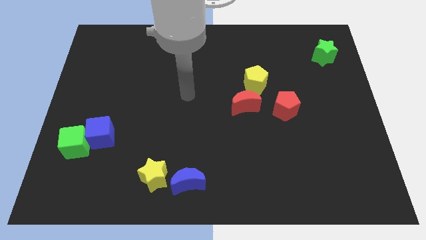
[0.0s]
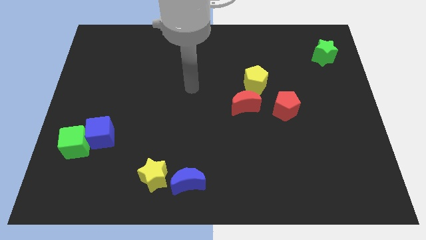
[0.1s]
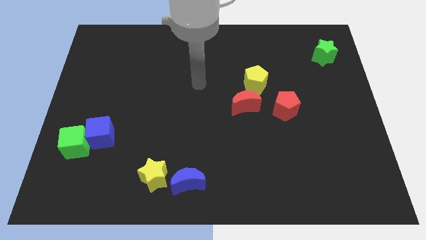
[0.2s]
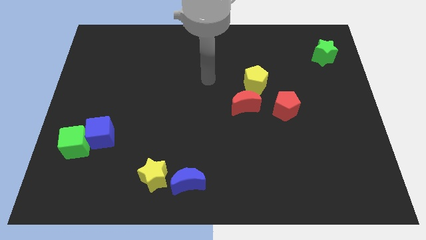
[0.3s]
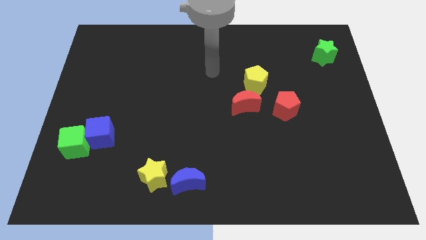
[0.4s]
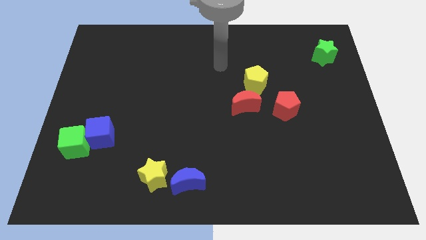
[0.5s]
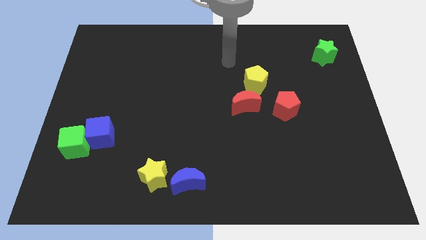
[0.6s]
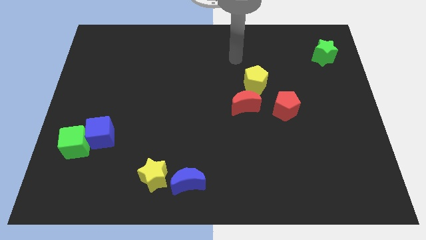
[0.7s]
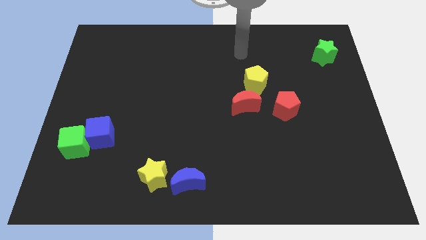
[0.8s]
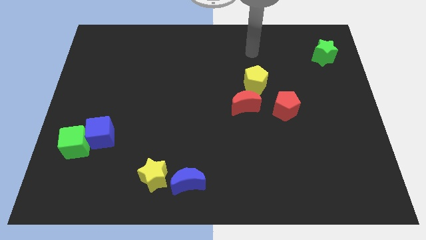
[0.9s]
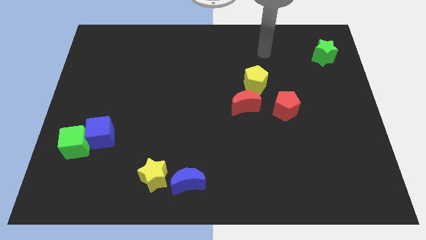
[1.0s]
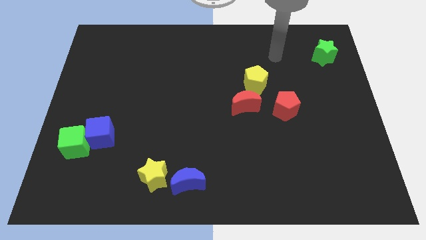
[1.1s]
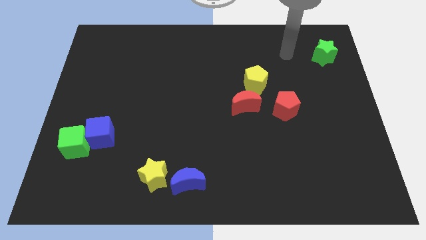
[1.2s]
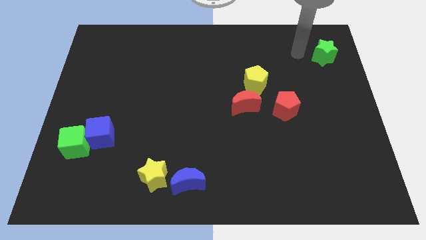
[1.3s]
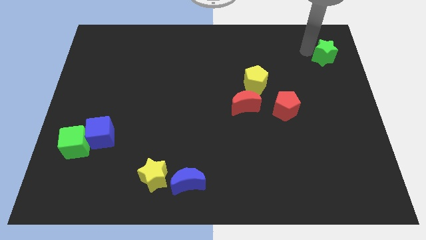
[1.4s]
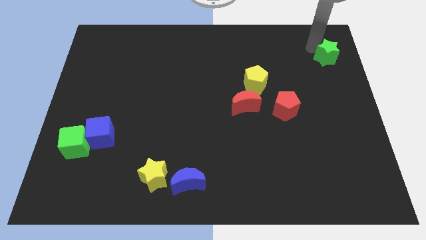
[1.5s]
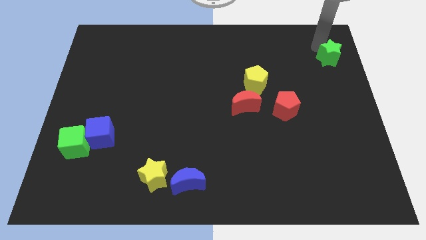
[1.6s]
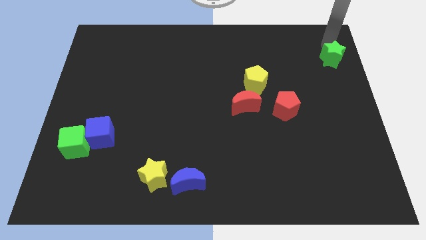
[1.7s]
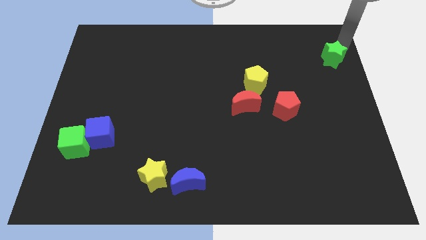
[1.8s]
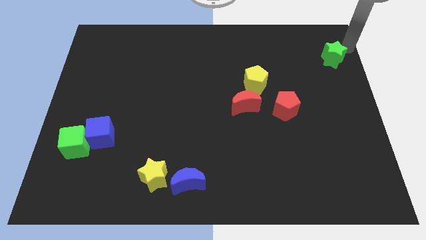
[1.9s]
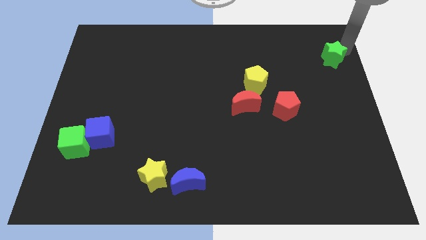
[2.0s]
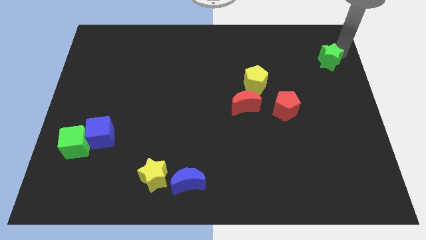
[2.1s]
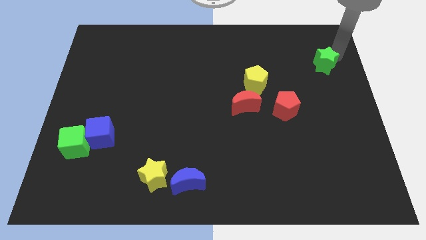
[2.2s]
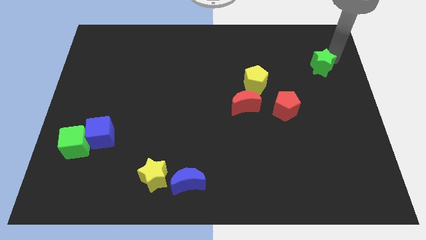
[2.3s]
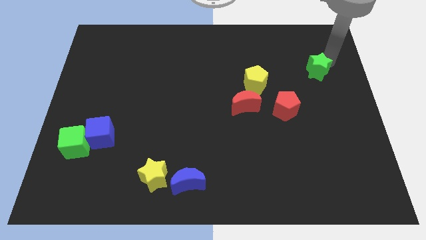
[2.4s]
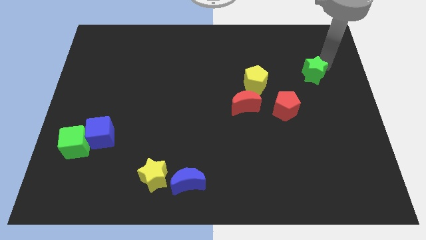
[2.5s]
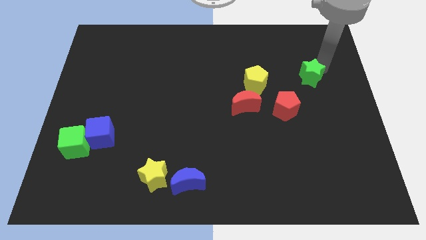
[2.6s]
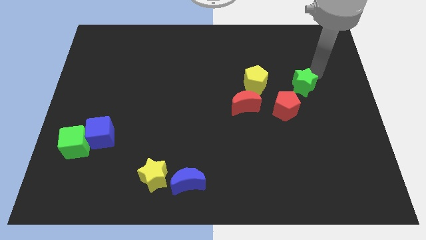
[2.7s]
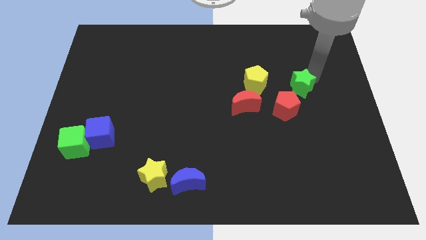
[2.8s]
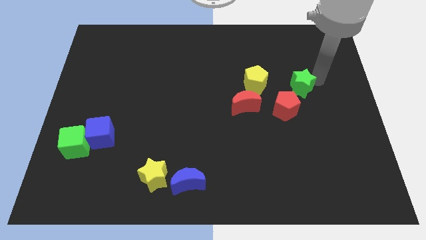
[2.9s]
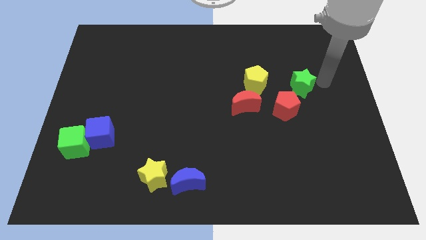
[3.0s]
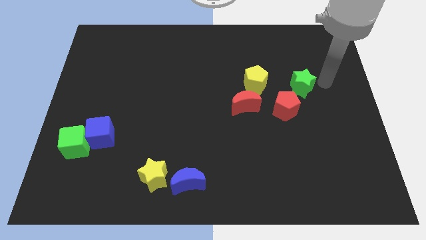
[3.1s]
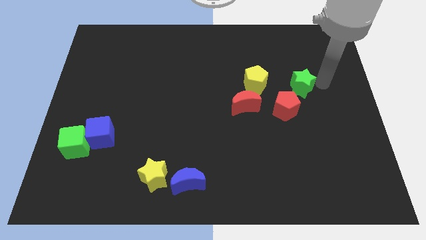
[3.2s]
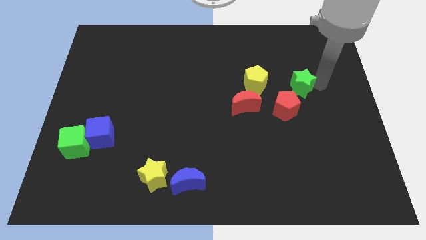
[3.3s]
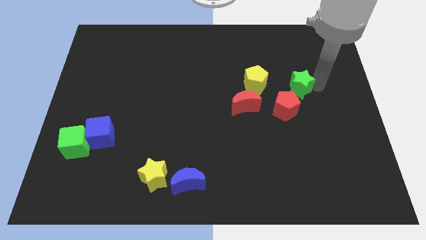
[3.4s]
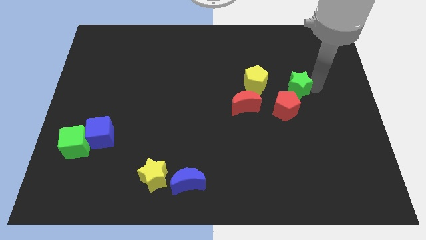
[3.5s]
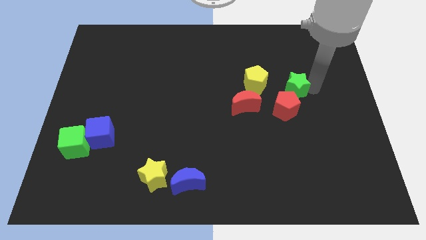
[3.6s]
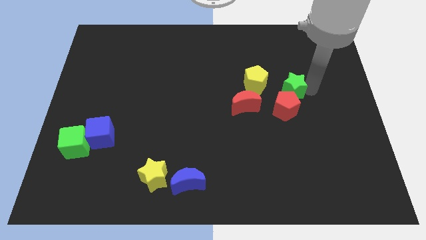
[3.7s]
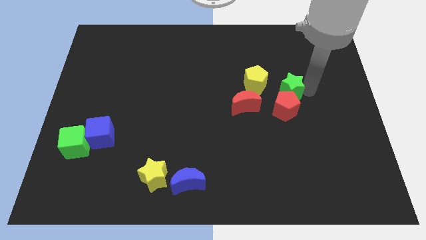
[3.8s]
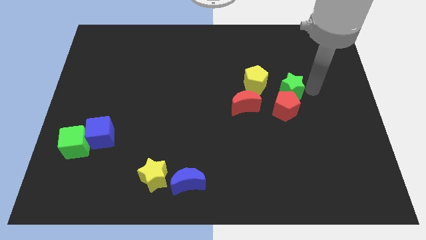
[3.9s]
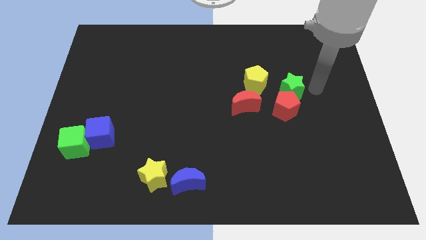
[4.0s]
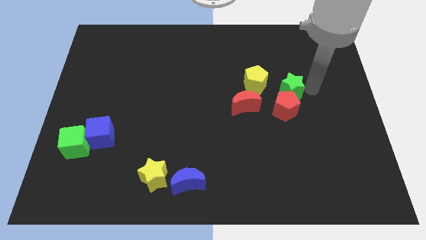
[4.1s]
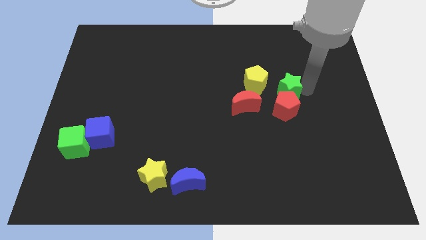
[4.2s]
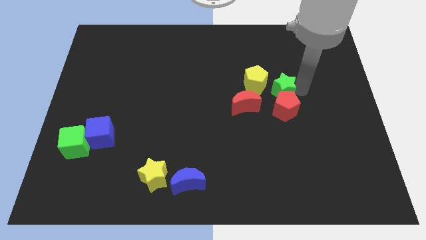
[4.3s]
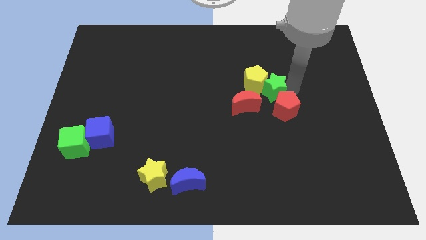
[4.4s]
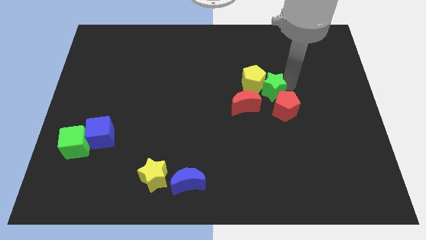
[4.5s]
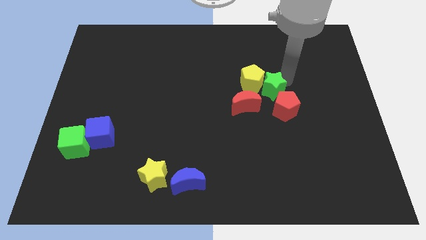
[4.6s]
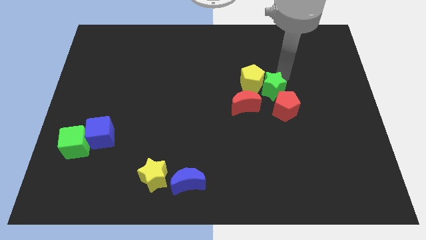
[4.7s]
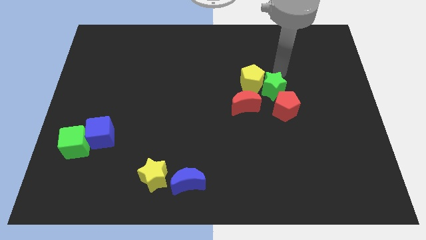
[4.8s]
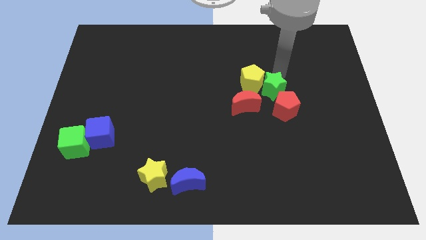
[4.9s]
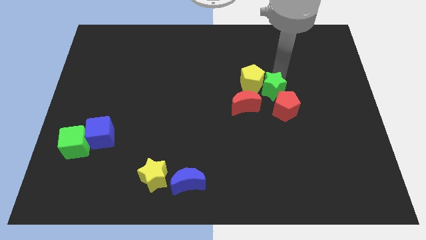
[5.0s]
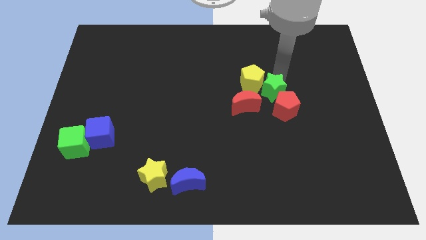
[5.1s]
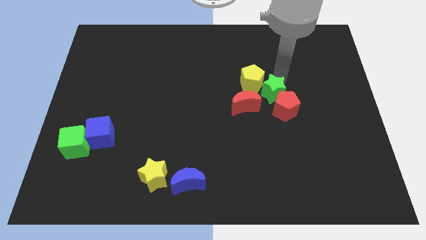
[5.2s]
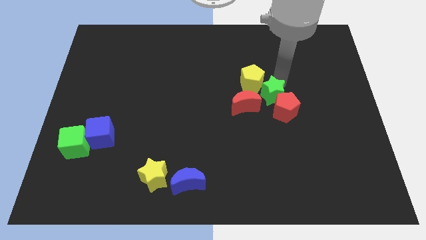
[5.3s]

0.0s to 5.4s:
slide the green star diagonally down and left

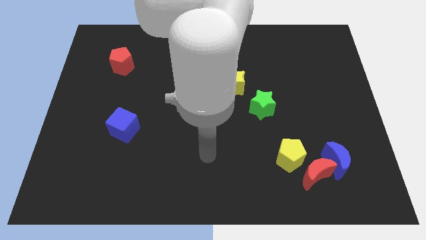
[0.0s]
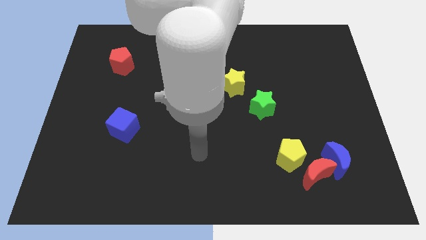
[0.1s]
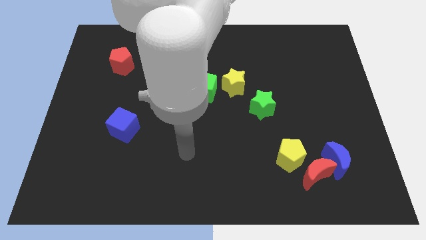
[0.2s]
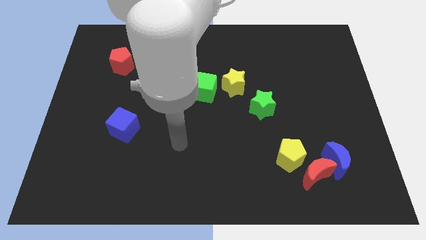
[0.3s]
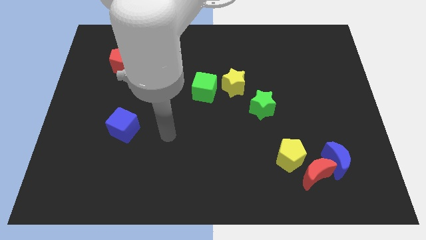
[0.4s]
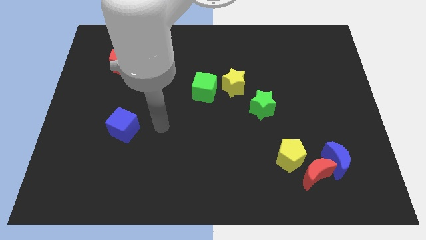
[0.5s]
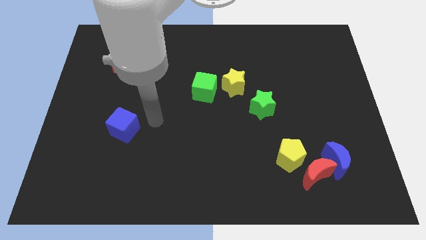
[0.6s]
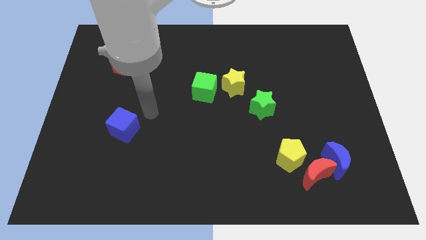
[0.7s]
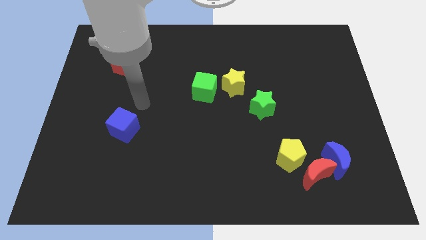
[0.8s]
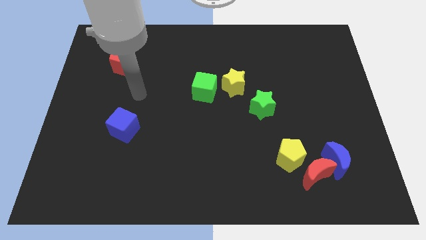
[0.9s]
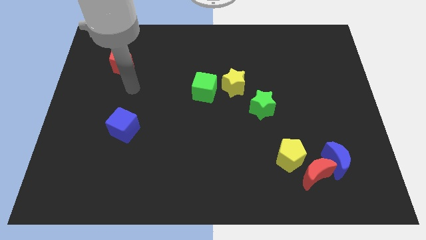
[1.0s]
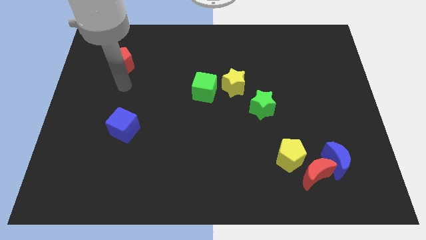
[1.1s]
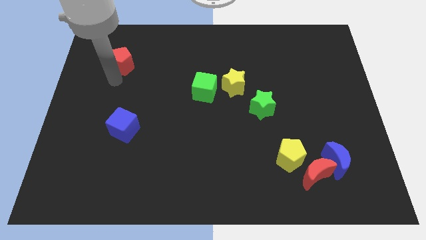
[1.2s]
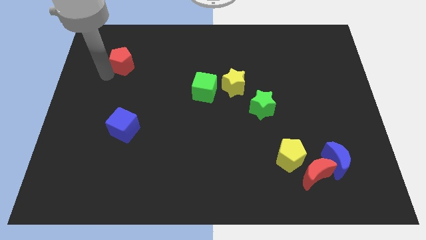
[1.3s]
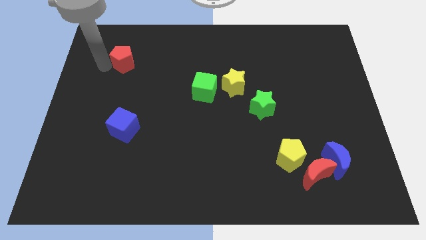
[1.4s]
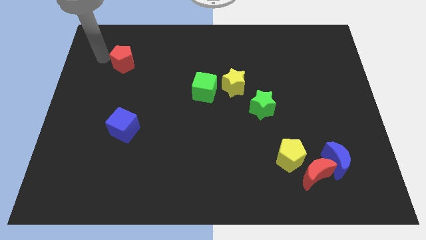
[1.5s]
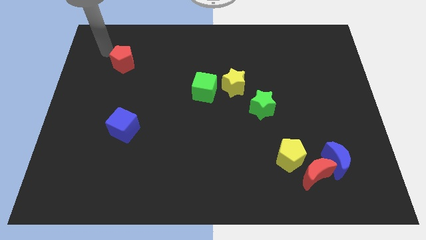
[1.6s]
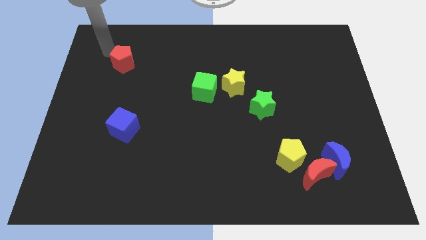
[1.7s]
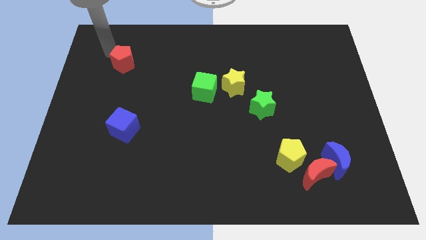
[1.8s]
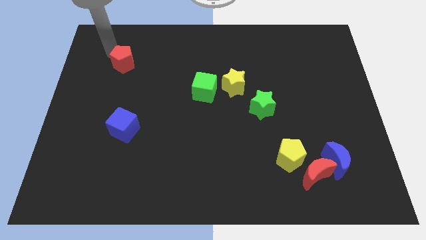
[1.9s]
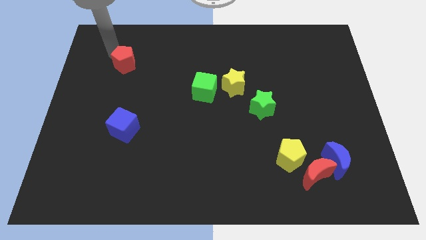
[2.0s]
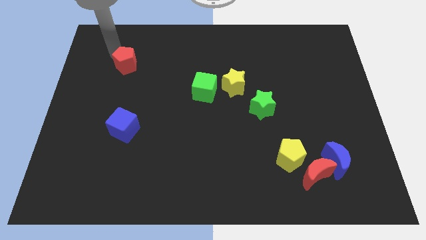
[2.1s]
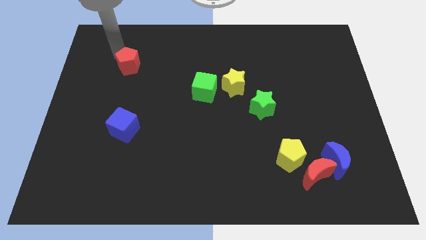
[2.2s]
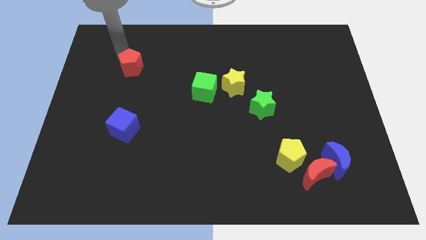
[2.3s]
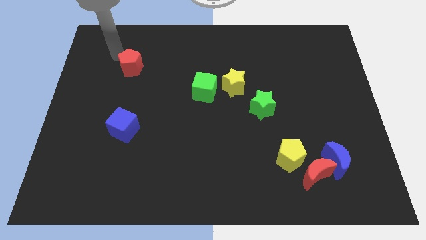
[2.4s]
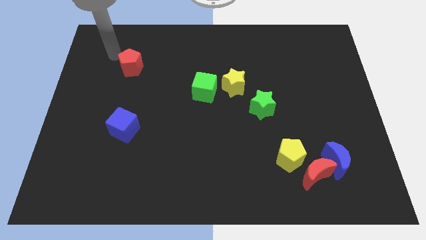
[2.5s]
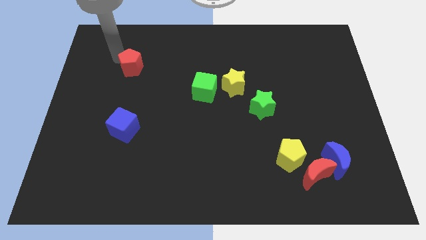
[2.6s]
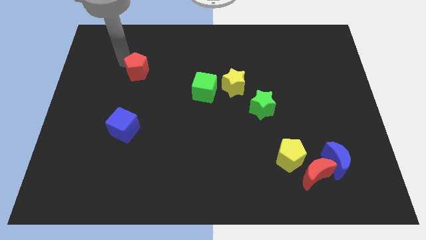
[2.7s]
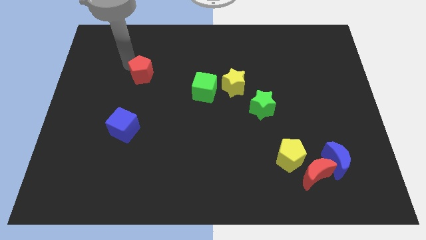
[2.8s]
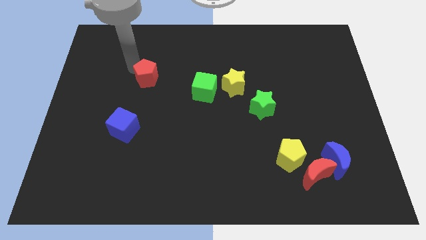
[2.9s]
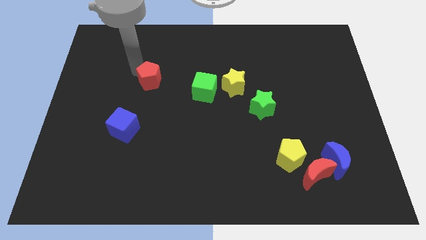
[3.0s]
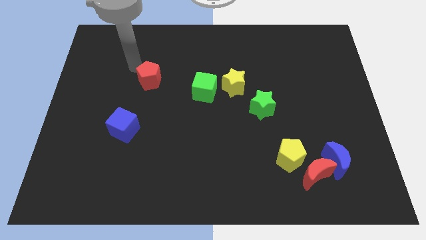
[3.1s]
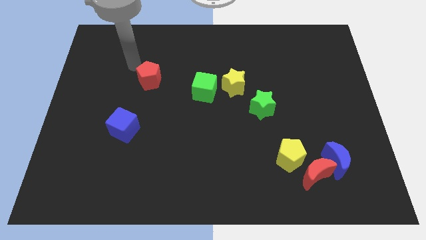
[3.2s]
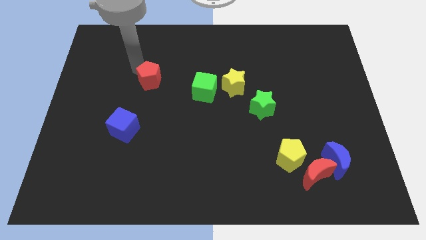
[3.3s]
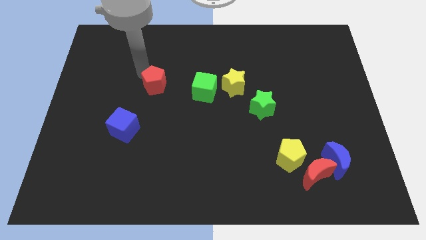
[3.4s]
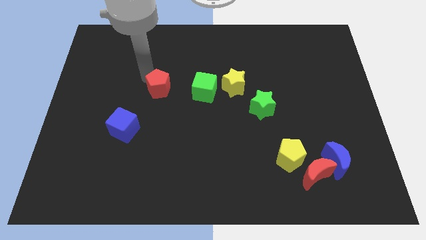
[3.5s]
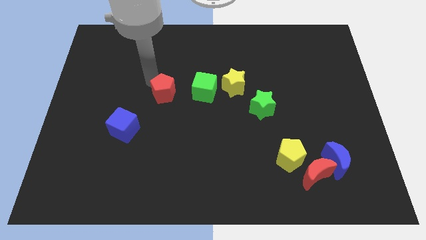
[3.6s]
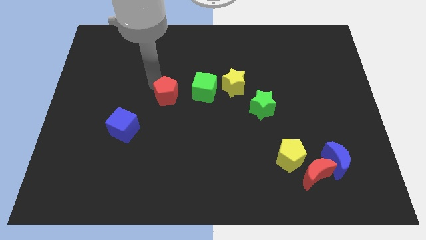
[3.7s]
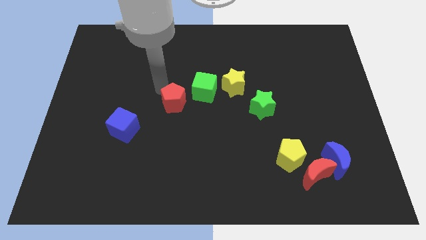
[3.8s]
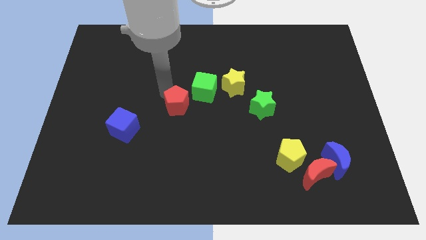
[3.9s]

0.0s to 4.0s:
push the red pentagon downwards and right
